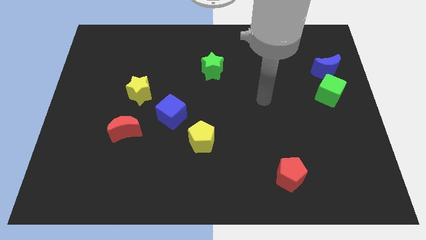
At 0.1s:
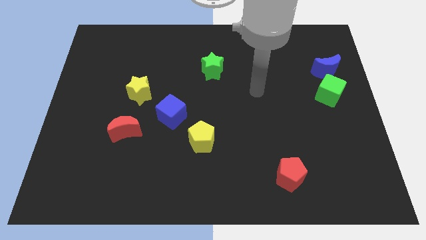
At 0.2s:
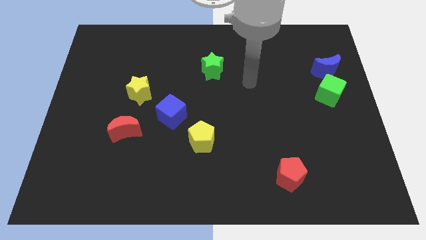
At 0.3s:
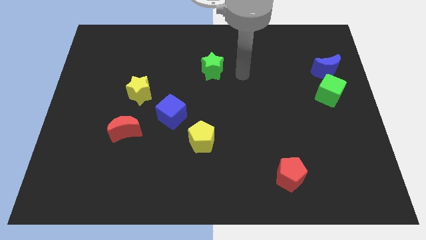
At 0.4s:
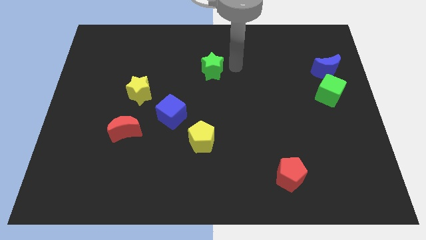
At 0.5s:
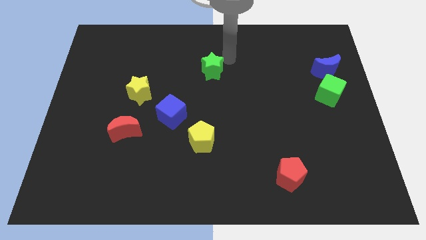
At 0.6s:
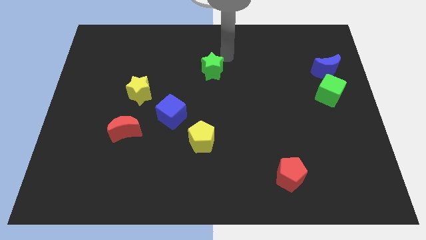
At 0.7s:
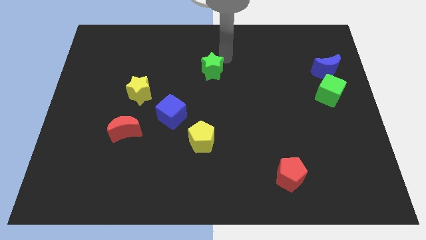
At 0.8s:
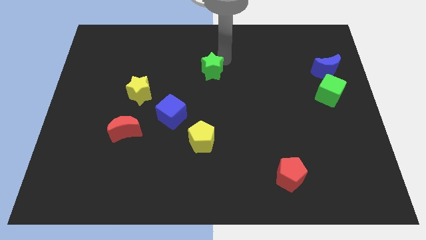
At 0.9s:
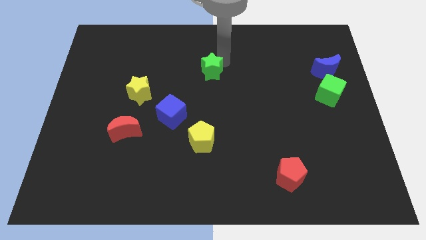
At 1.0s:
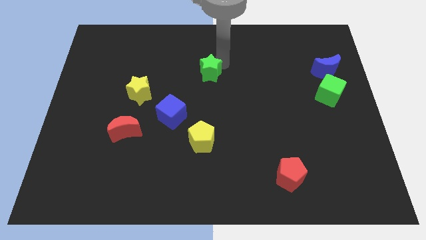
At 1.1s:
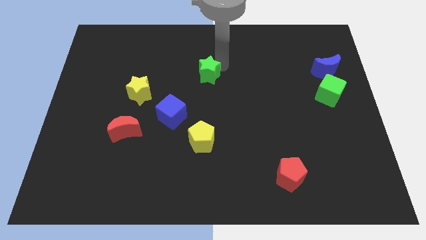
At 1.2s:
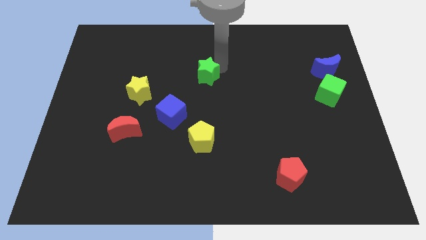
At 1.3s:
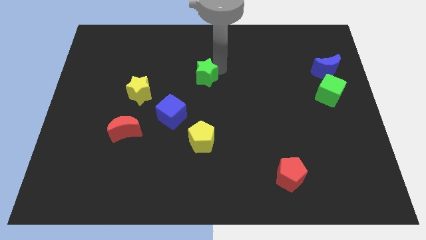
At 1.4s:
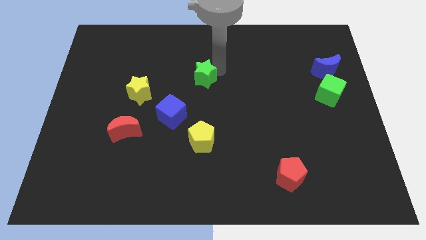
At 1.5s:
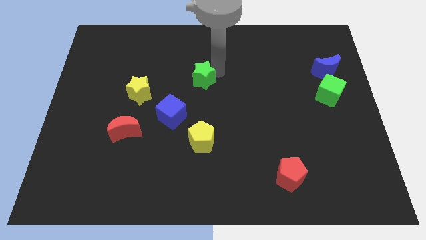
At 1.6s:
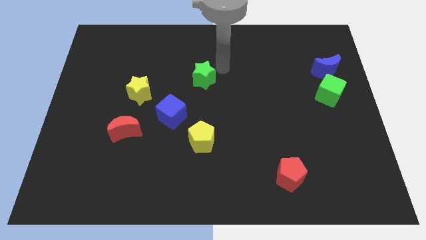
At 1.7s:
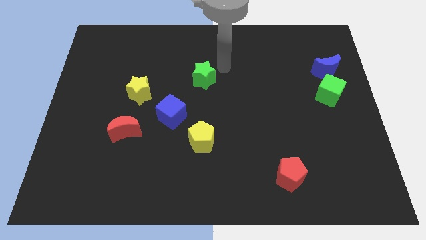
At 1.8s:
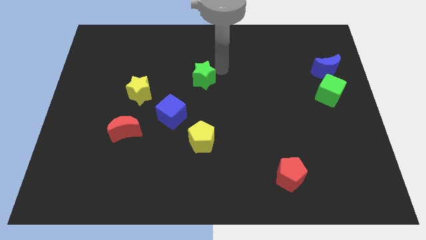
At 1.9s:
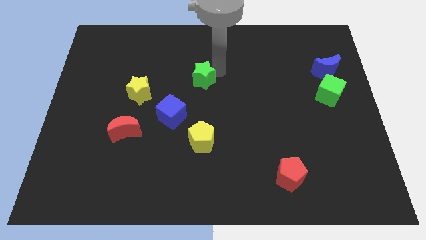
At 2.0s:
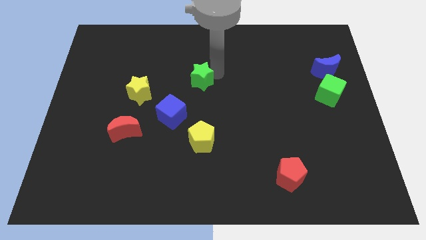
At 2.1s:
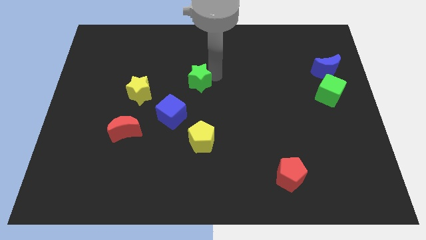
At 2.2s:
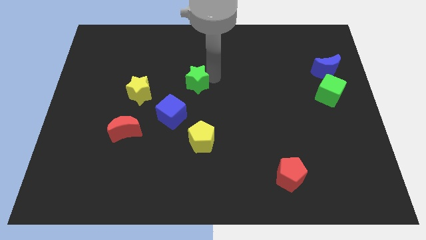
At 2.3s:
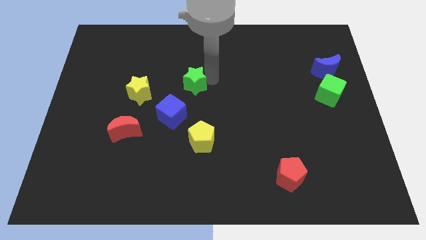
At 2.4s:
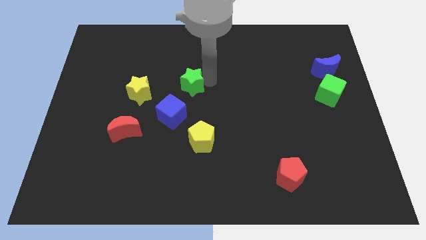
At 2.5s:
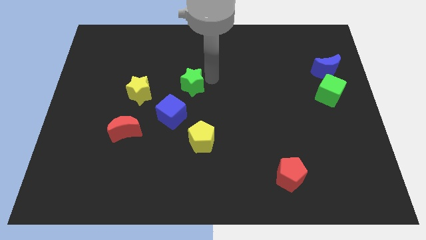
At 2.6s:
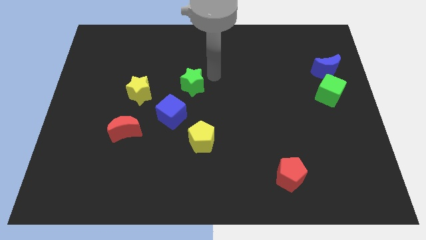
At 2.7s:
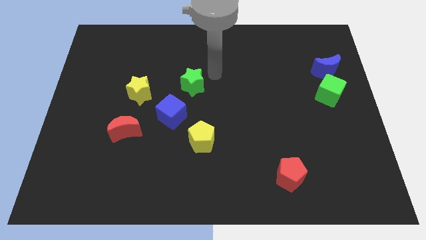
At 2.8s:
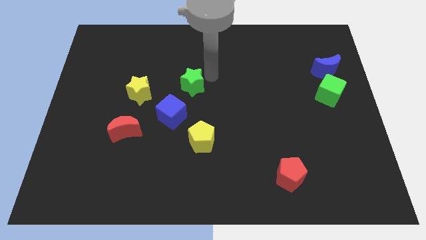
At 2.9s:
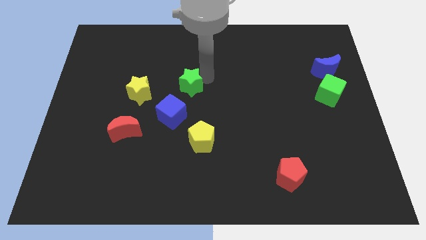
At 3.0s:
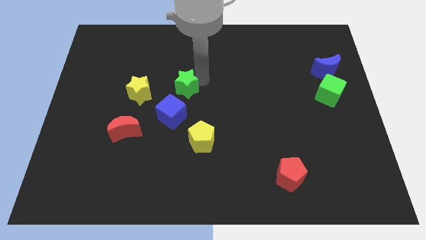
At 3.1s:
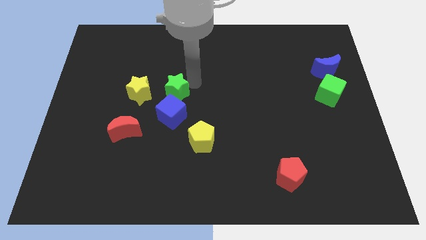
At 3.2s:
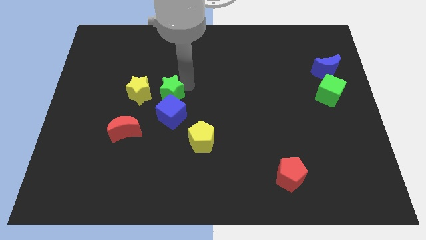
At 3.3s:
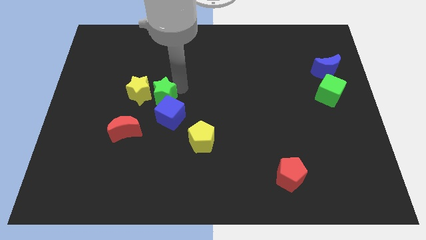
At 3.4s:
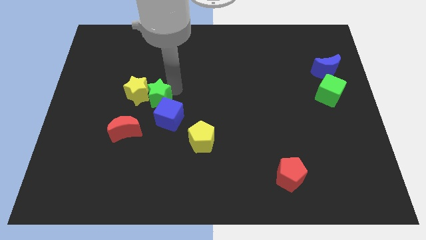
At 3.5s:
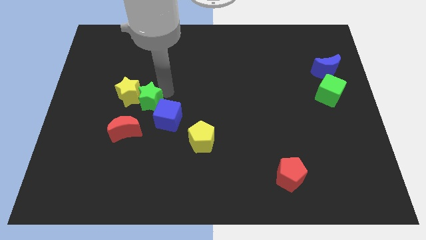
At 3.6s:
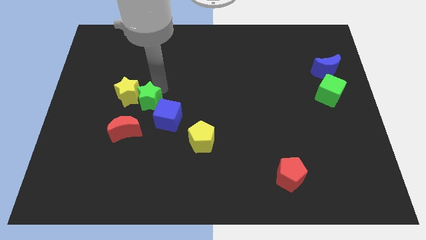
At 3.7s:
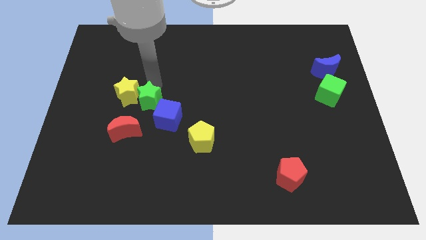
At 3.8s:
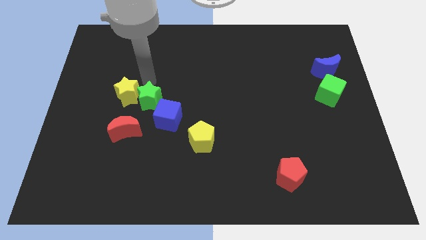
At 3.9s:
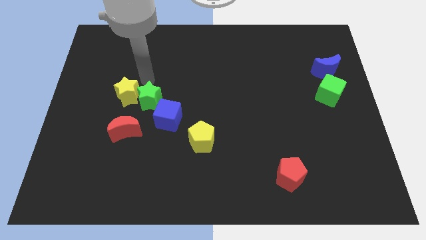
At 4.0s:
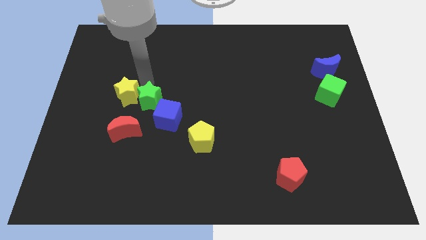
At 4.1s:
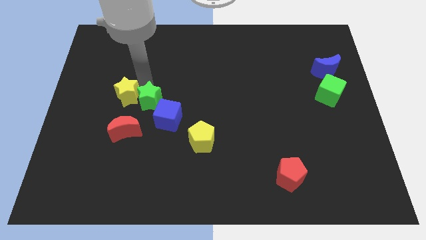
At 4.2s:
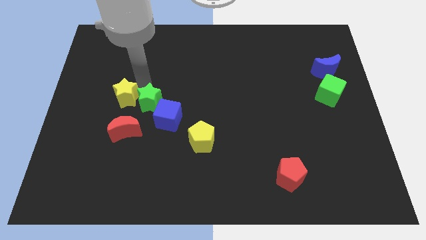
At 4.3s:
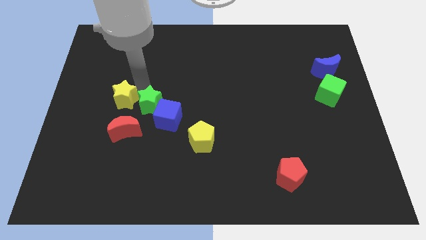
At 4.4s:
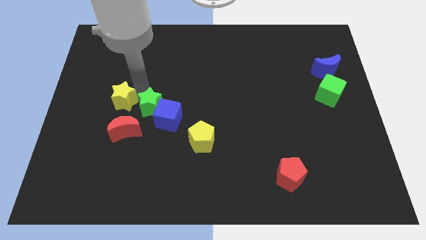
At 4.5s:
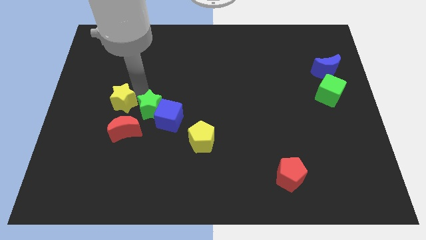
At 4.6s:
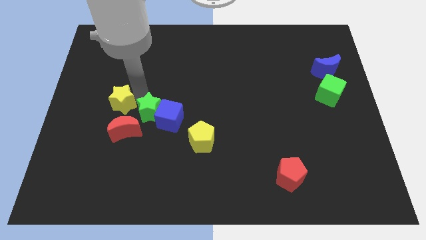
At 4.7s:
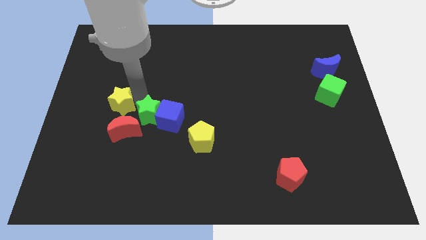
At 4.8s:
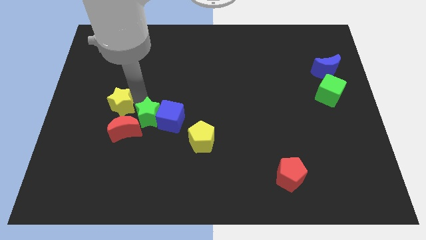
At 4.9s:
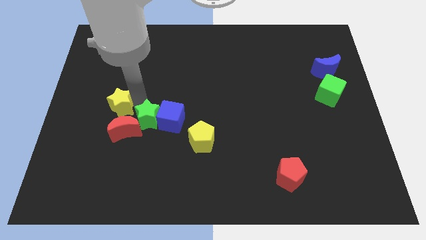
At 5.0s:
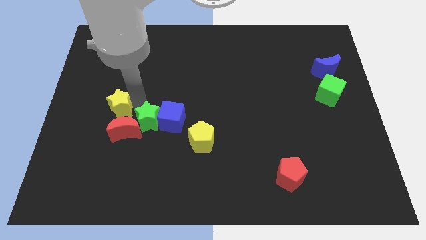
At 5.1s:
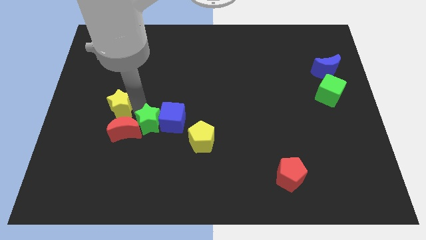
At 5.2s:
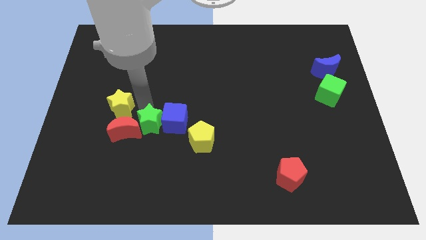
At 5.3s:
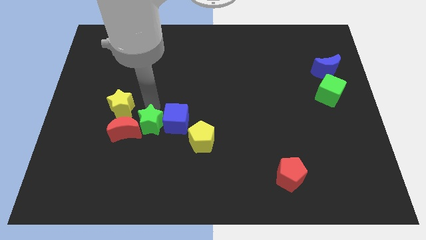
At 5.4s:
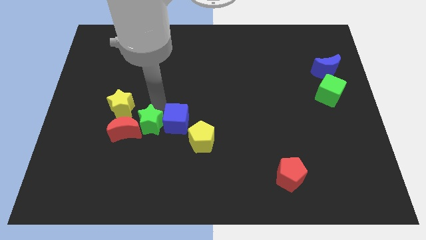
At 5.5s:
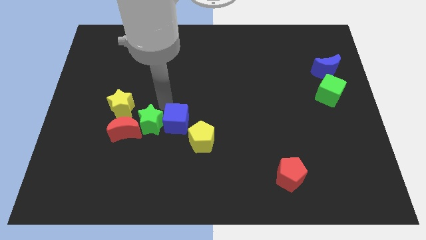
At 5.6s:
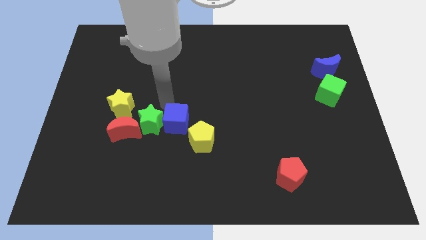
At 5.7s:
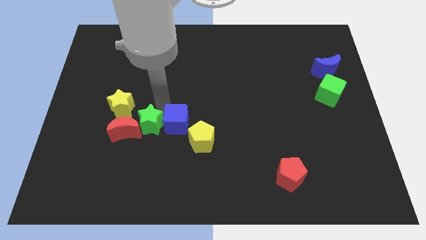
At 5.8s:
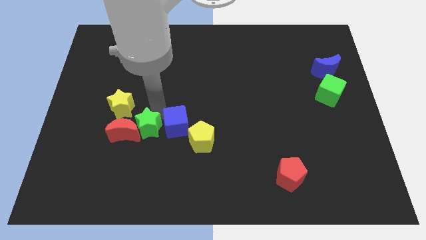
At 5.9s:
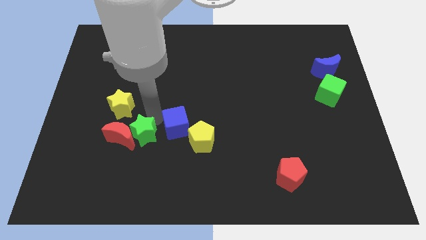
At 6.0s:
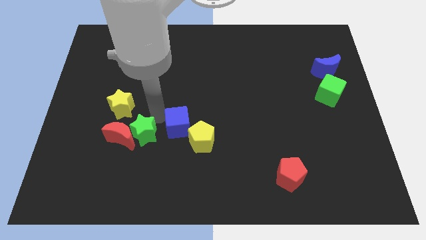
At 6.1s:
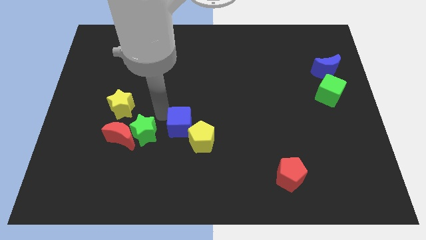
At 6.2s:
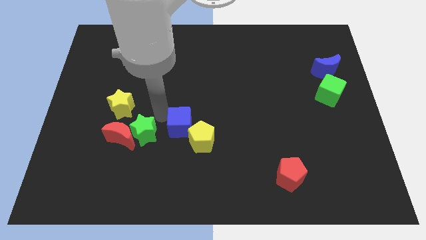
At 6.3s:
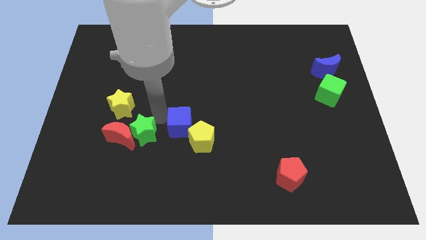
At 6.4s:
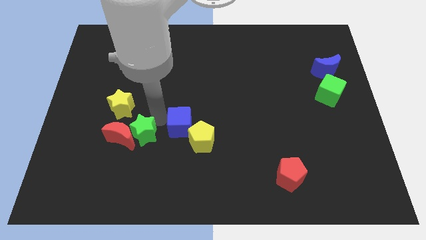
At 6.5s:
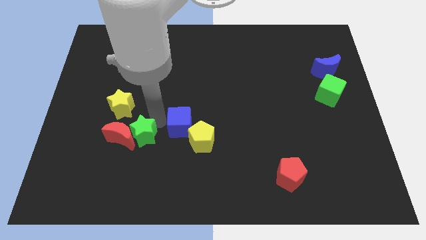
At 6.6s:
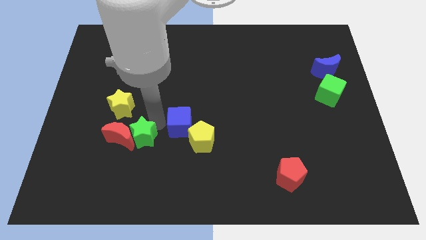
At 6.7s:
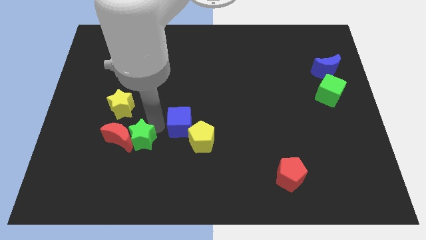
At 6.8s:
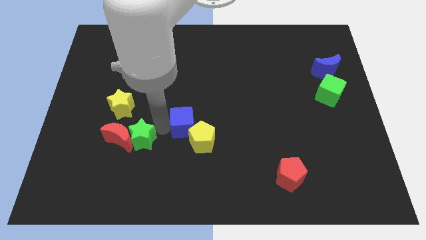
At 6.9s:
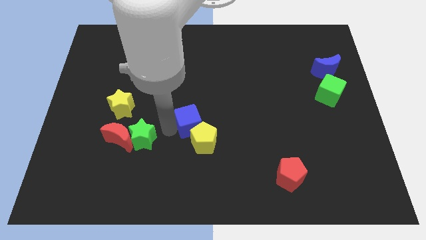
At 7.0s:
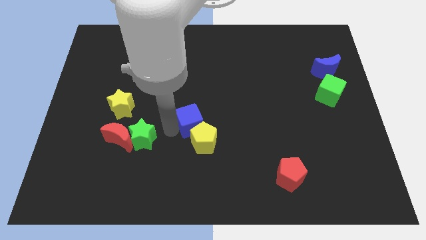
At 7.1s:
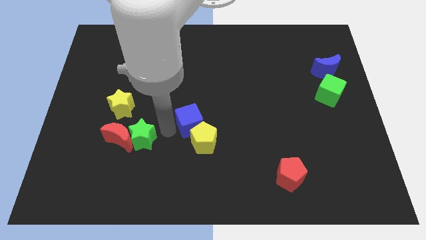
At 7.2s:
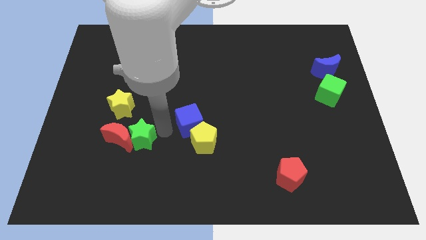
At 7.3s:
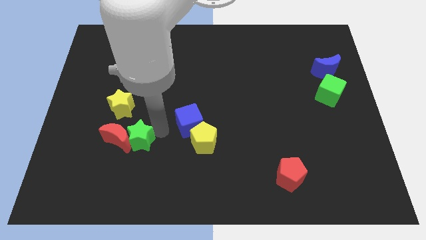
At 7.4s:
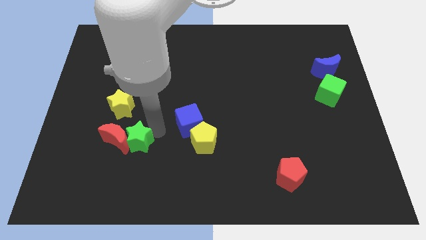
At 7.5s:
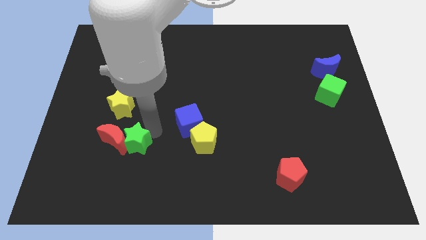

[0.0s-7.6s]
move the green star below the yellow star

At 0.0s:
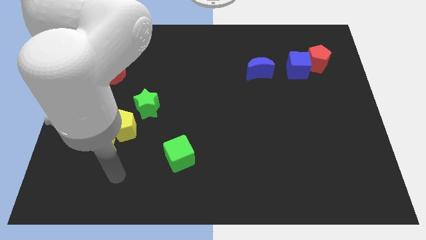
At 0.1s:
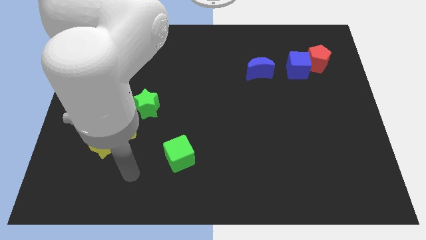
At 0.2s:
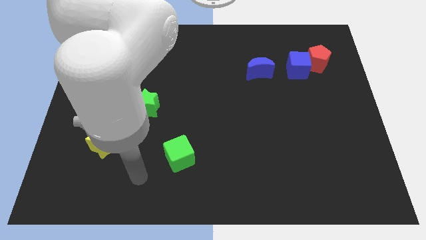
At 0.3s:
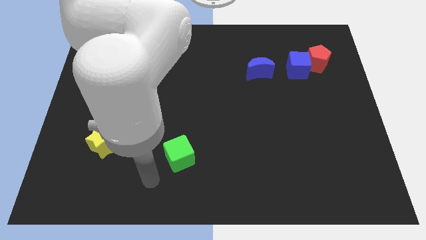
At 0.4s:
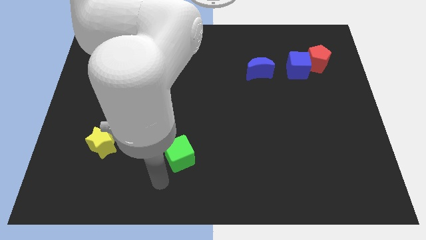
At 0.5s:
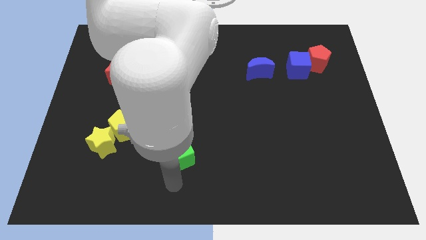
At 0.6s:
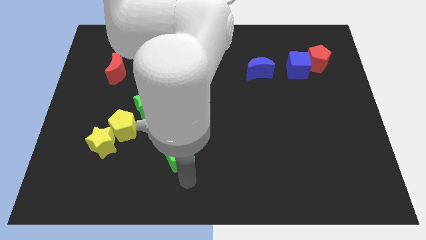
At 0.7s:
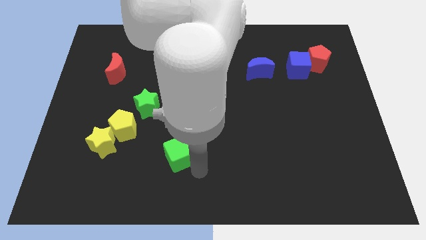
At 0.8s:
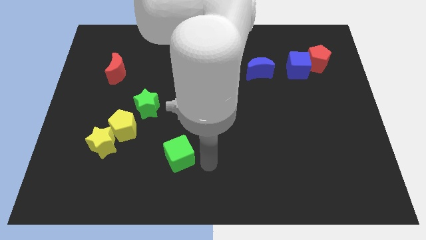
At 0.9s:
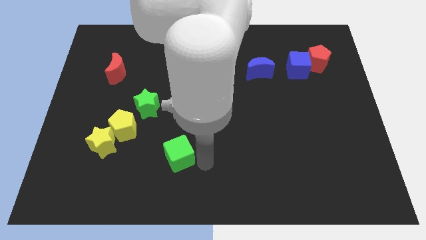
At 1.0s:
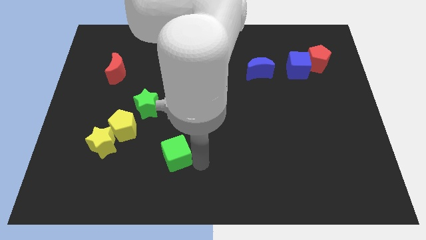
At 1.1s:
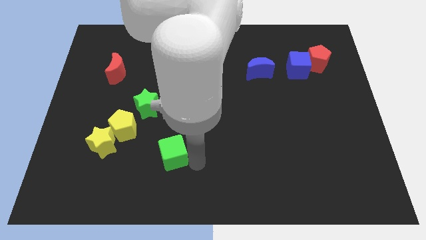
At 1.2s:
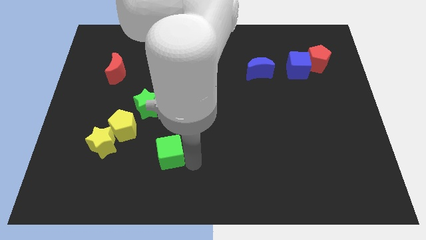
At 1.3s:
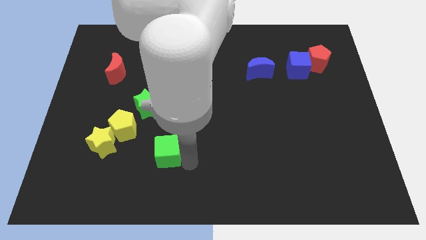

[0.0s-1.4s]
put the green cube to the bottom right of the yellow pentagon
